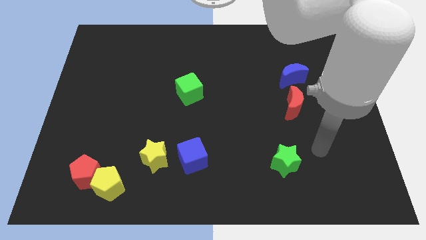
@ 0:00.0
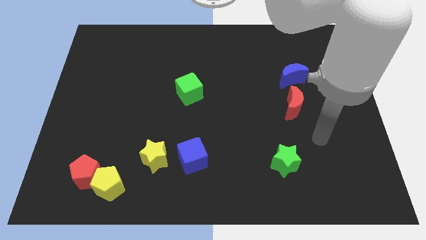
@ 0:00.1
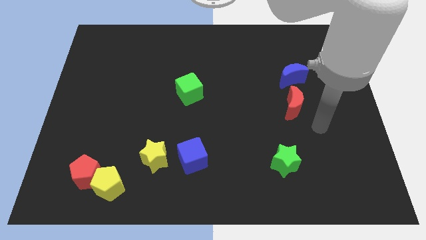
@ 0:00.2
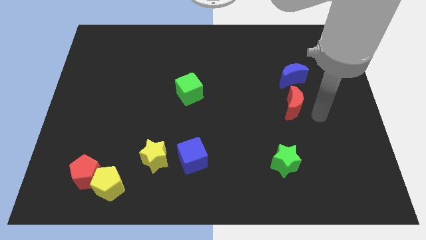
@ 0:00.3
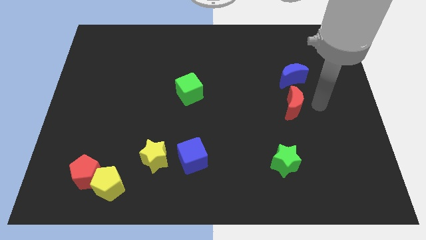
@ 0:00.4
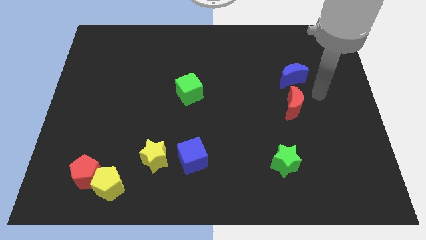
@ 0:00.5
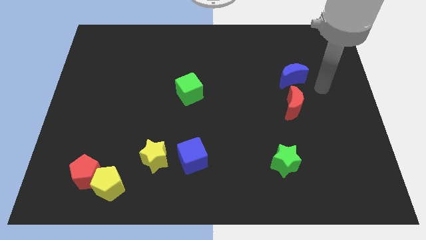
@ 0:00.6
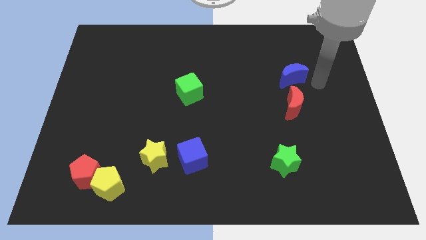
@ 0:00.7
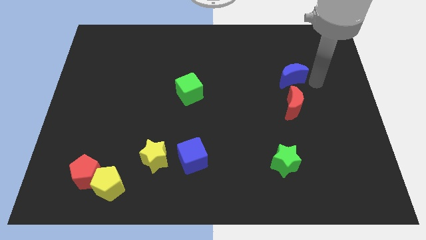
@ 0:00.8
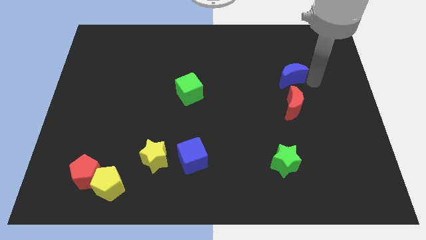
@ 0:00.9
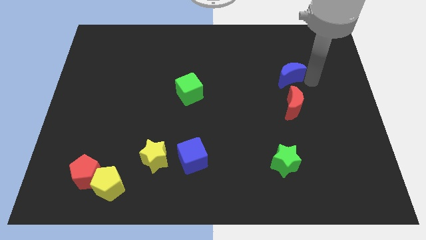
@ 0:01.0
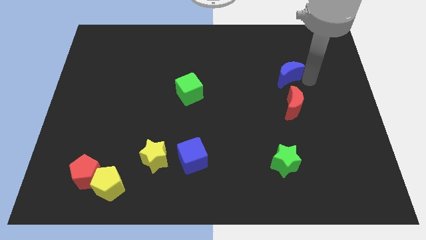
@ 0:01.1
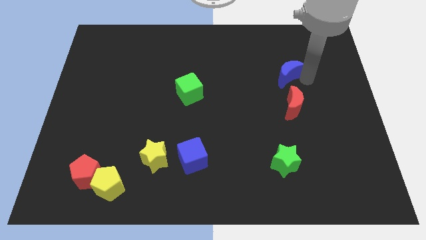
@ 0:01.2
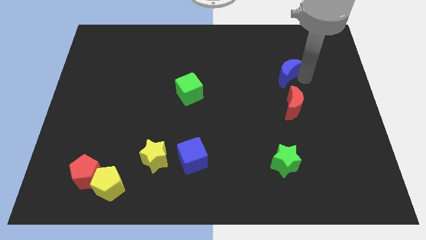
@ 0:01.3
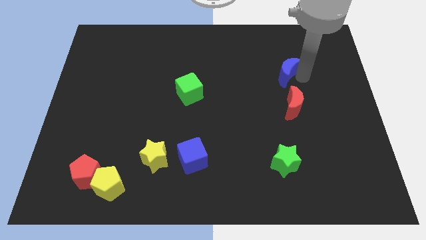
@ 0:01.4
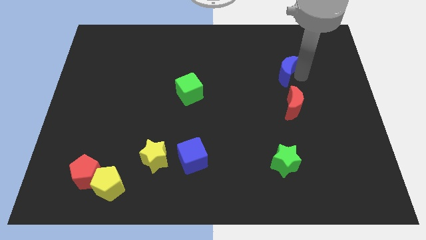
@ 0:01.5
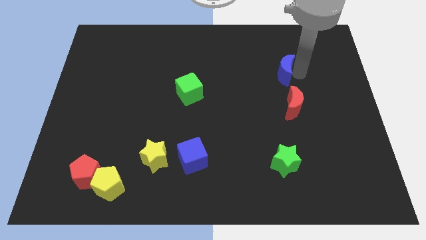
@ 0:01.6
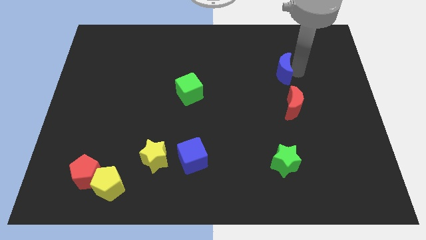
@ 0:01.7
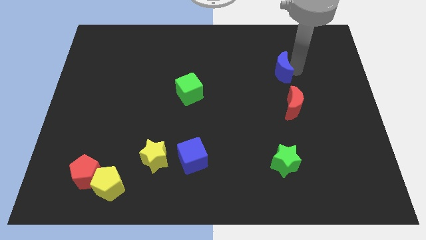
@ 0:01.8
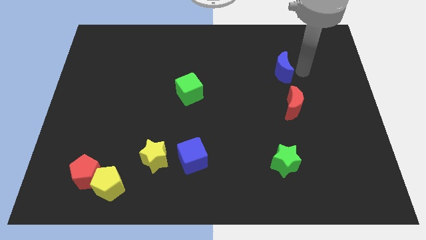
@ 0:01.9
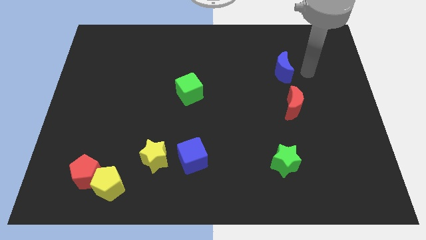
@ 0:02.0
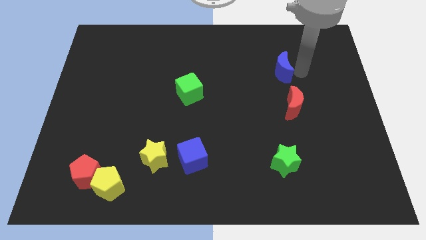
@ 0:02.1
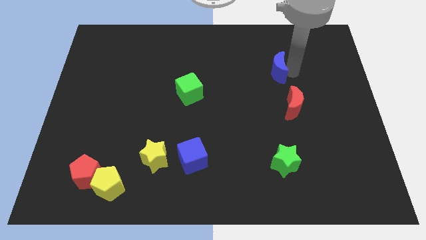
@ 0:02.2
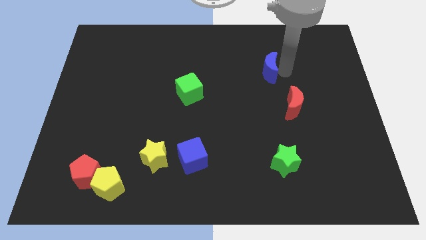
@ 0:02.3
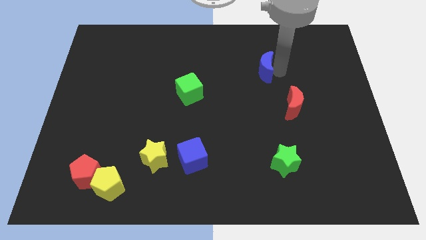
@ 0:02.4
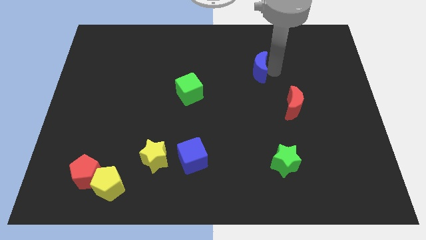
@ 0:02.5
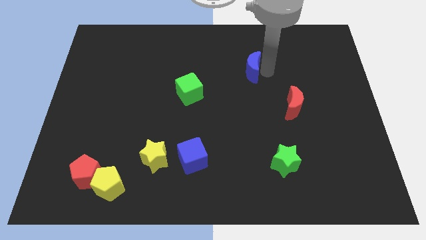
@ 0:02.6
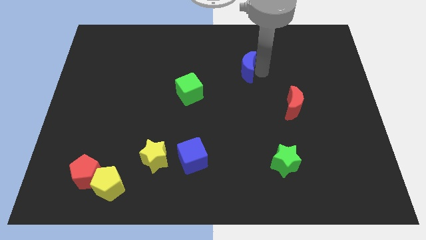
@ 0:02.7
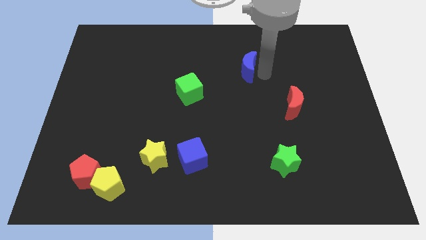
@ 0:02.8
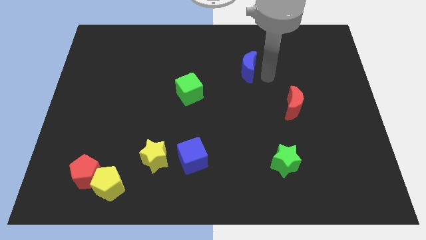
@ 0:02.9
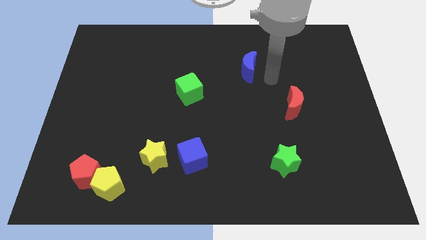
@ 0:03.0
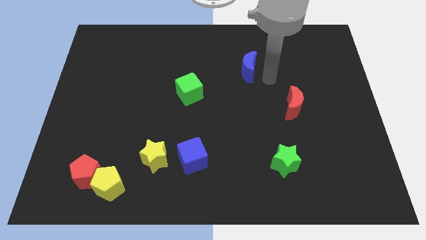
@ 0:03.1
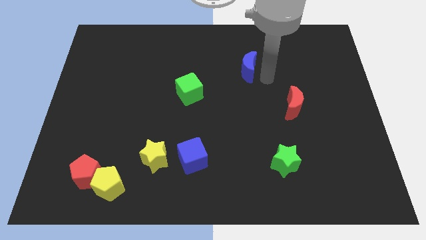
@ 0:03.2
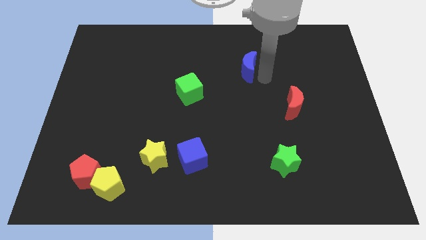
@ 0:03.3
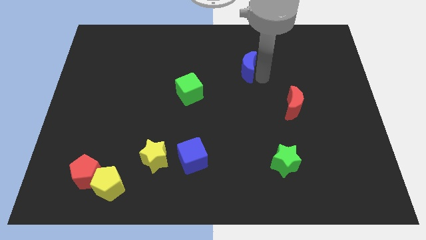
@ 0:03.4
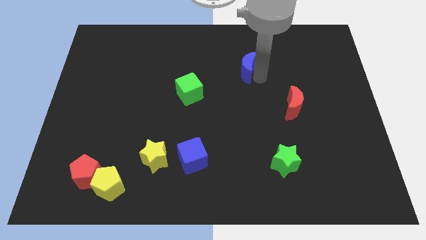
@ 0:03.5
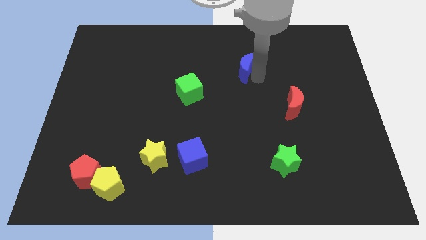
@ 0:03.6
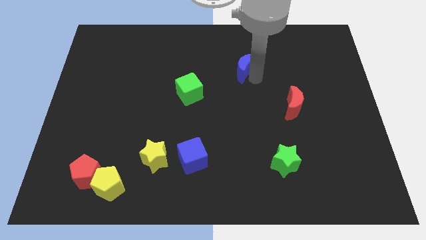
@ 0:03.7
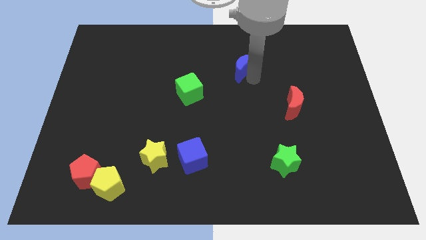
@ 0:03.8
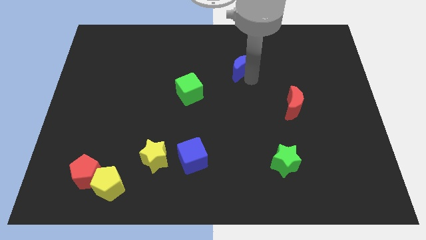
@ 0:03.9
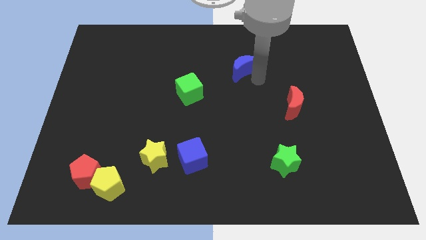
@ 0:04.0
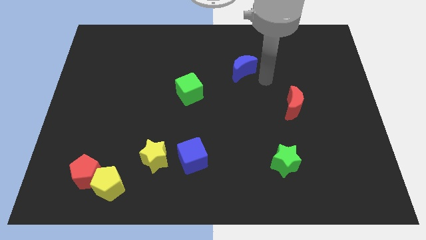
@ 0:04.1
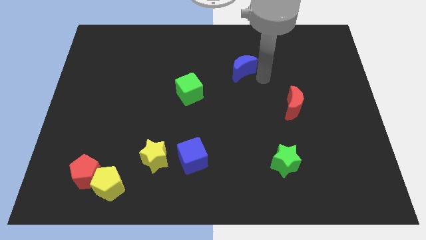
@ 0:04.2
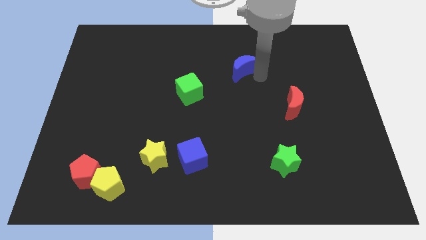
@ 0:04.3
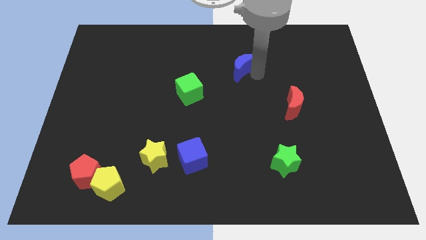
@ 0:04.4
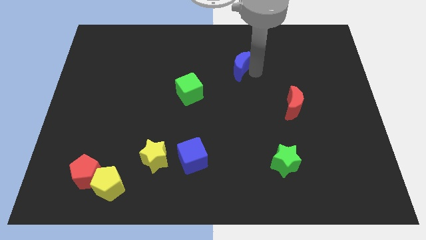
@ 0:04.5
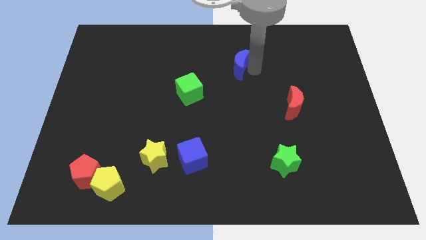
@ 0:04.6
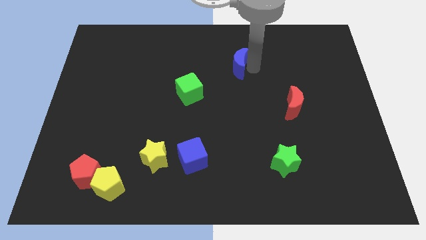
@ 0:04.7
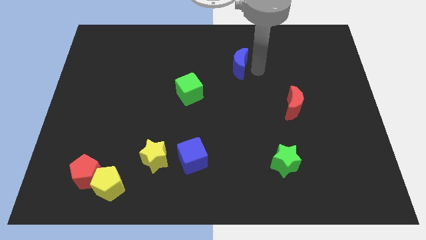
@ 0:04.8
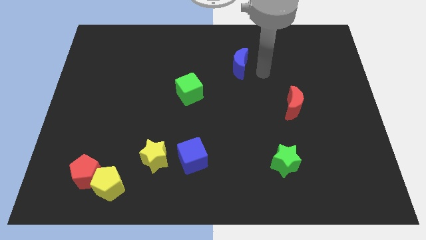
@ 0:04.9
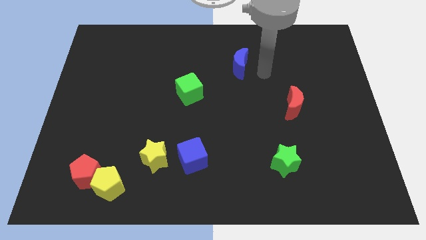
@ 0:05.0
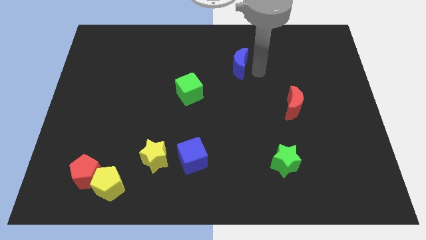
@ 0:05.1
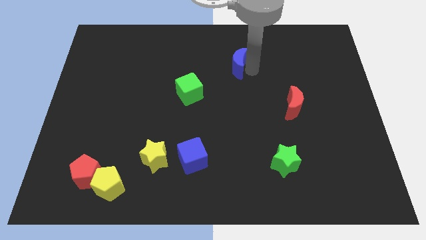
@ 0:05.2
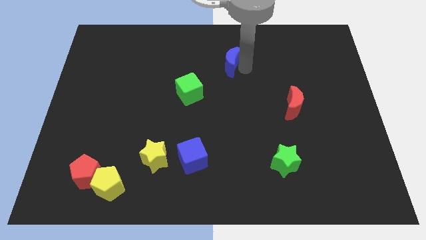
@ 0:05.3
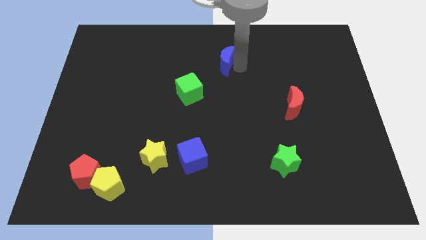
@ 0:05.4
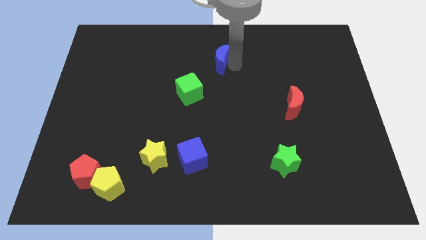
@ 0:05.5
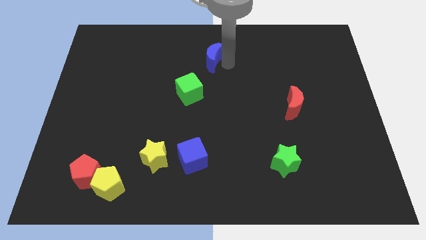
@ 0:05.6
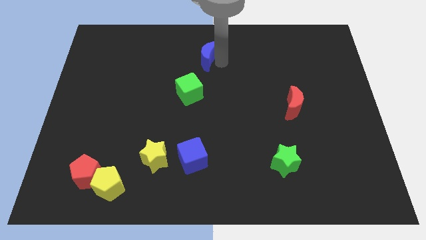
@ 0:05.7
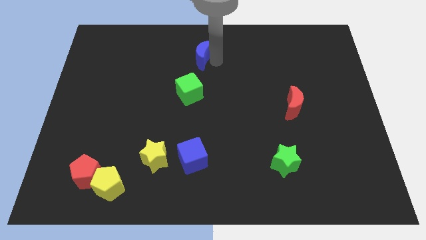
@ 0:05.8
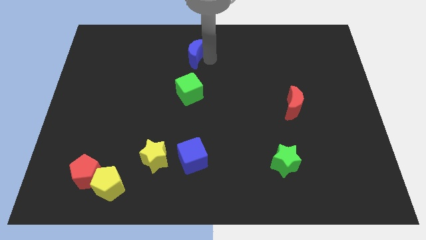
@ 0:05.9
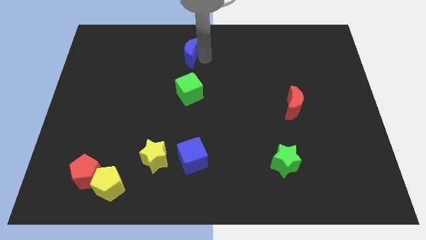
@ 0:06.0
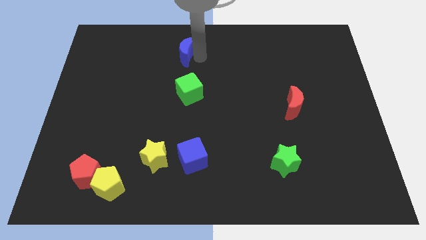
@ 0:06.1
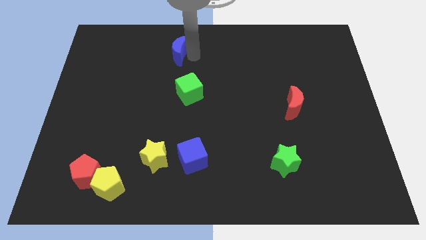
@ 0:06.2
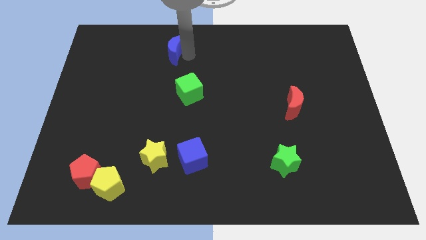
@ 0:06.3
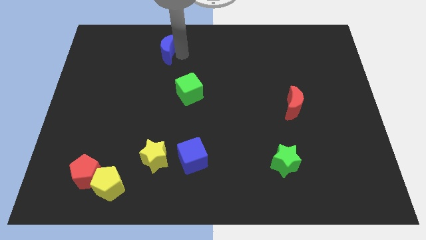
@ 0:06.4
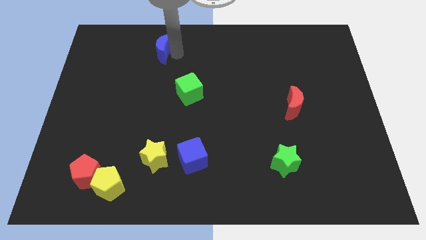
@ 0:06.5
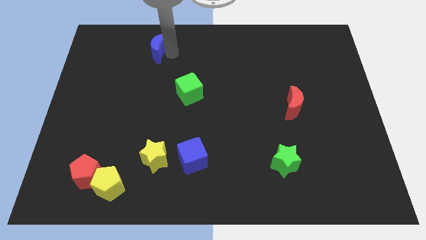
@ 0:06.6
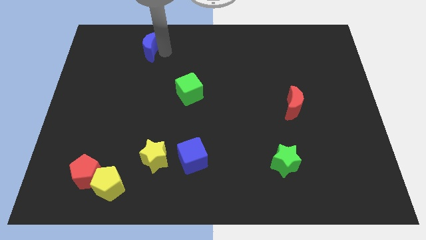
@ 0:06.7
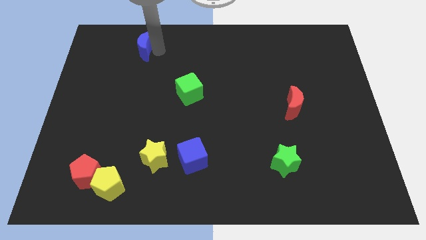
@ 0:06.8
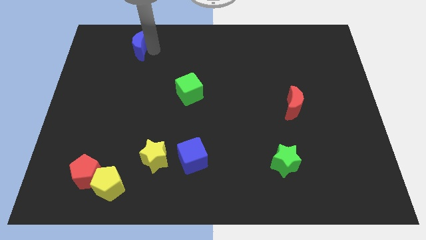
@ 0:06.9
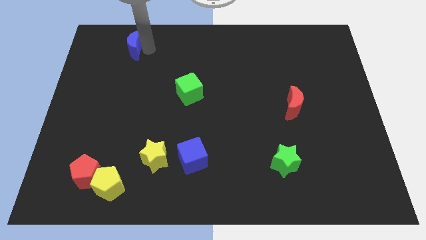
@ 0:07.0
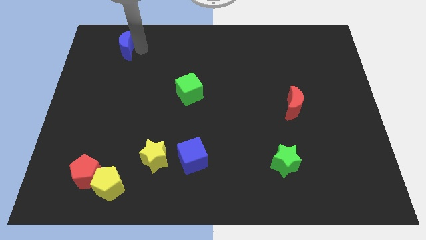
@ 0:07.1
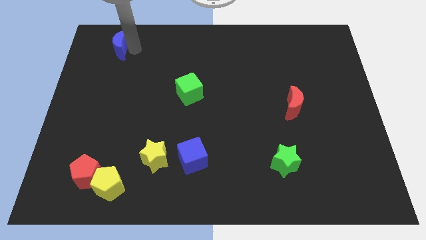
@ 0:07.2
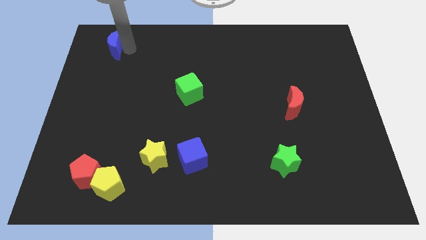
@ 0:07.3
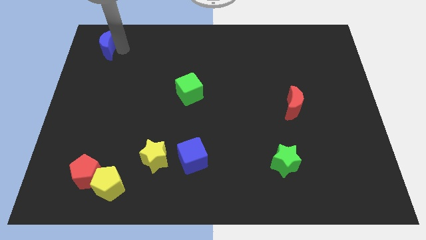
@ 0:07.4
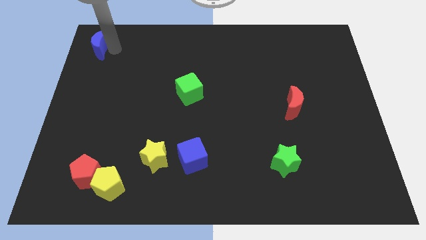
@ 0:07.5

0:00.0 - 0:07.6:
put the blue moon to the upper left corner
